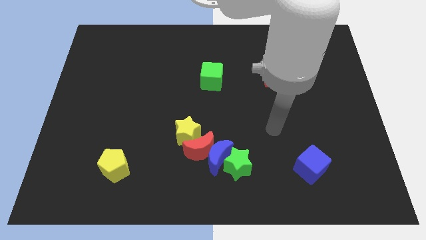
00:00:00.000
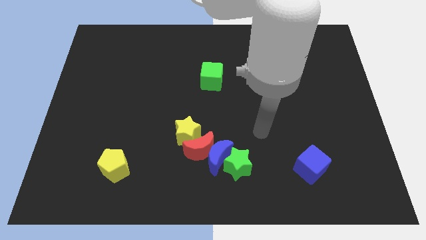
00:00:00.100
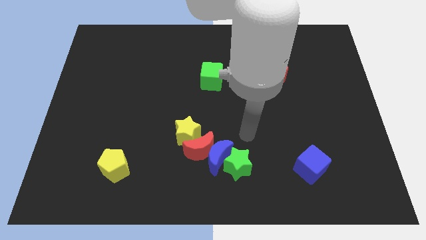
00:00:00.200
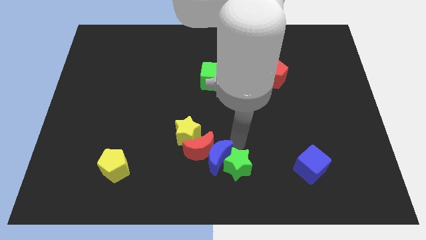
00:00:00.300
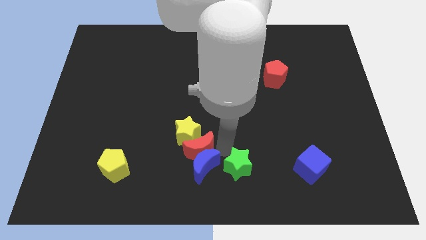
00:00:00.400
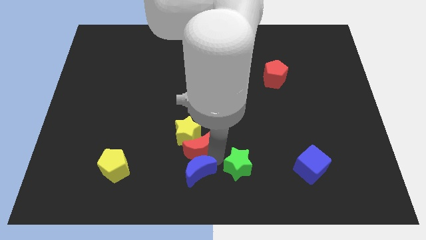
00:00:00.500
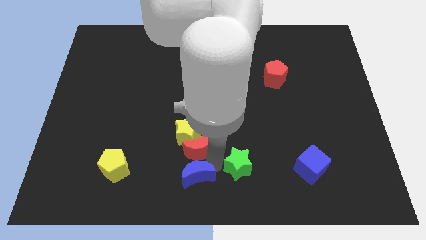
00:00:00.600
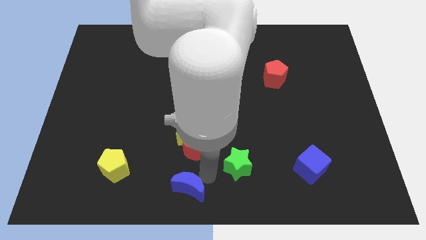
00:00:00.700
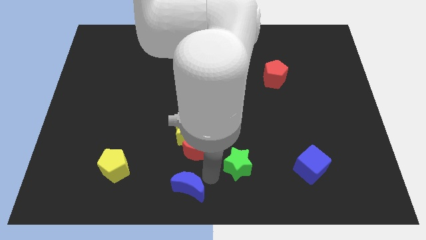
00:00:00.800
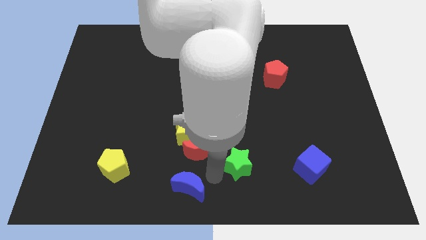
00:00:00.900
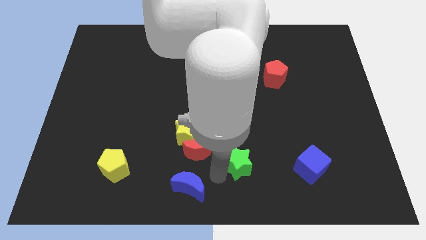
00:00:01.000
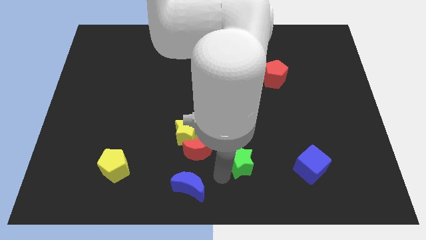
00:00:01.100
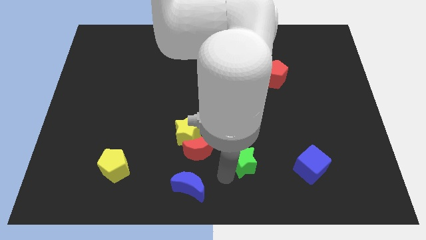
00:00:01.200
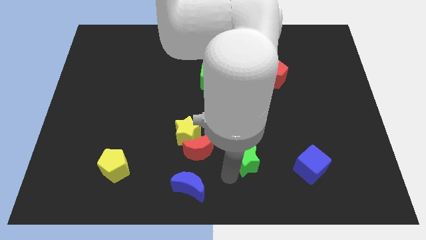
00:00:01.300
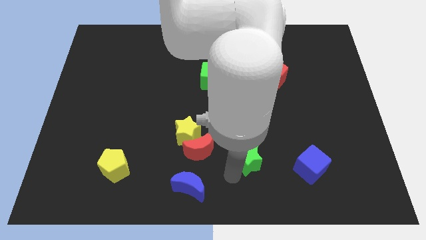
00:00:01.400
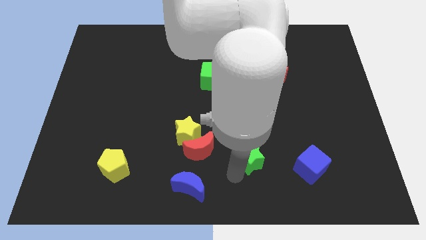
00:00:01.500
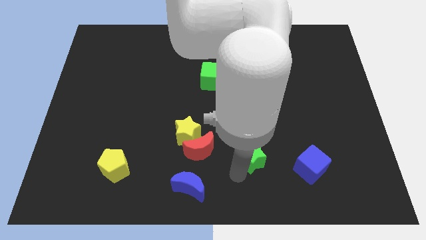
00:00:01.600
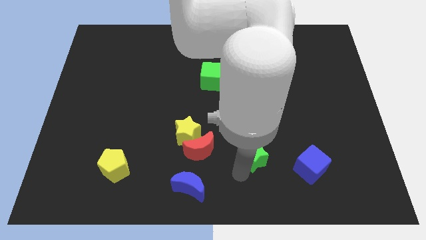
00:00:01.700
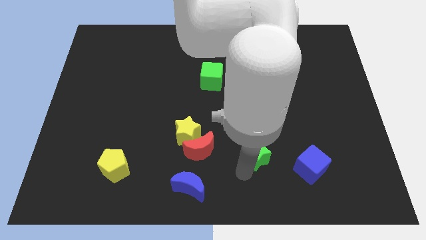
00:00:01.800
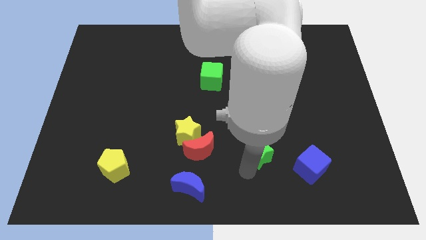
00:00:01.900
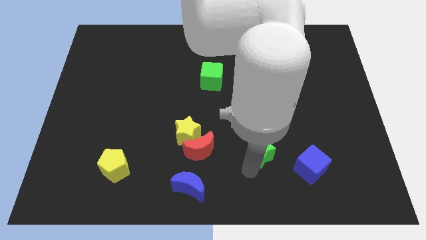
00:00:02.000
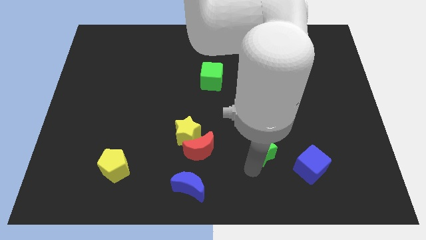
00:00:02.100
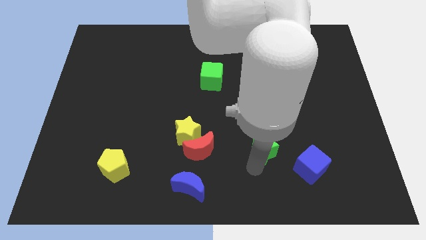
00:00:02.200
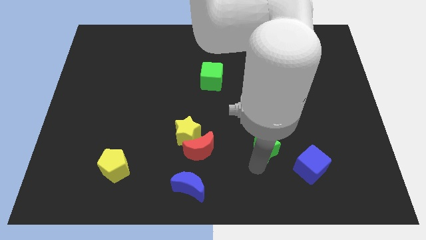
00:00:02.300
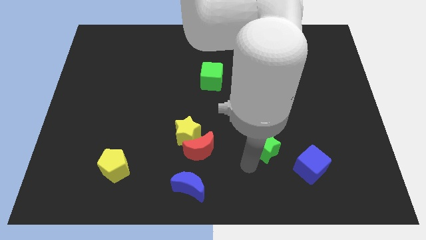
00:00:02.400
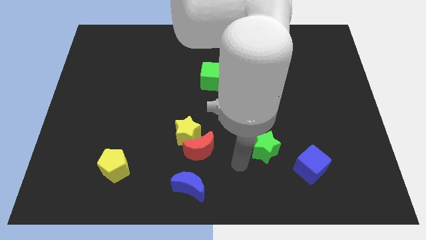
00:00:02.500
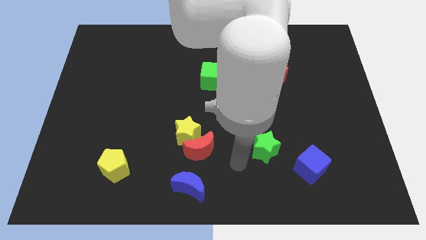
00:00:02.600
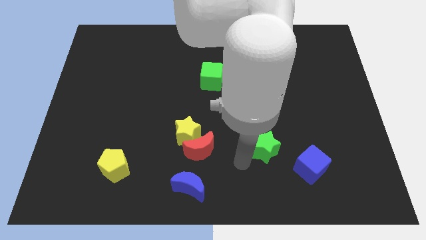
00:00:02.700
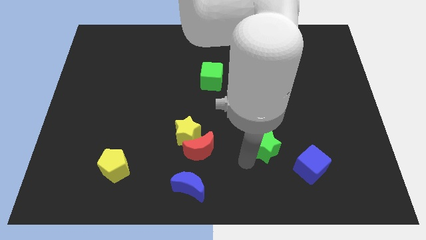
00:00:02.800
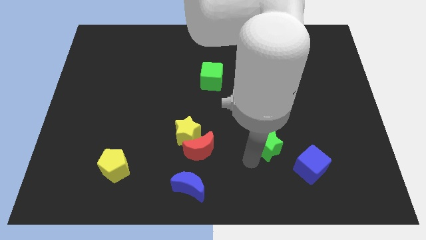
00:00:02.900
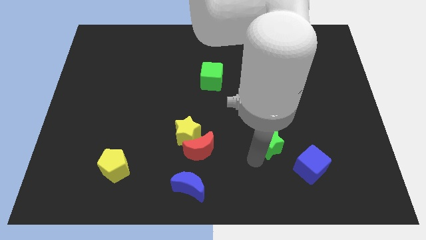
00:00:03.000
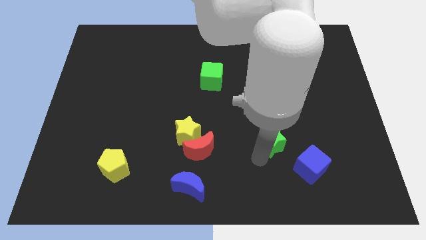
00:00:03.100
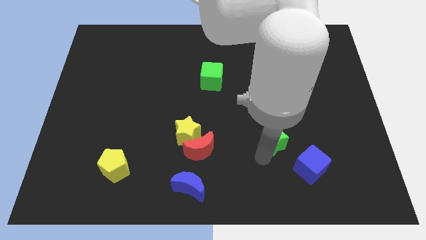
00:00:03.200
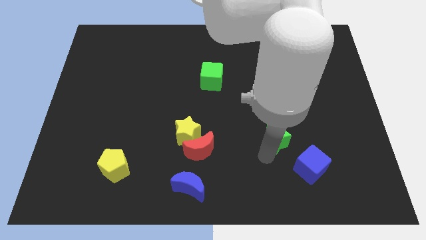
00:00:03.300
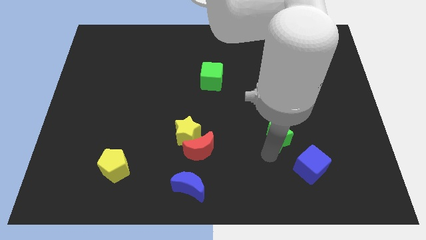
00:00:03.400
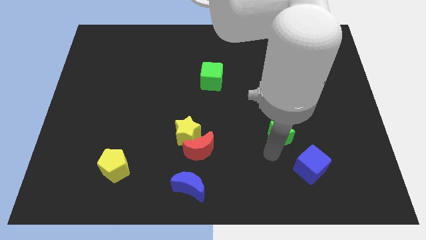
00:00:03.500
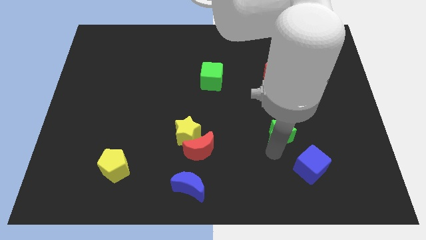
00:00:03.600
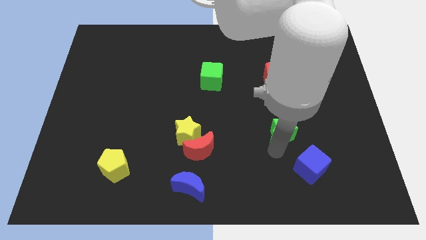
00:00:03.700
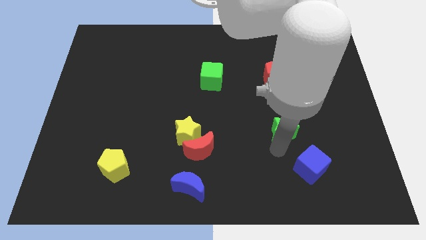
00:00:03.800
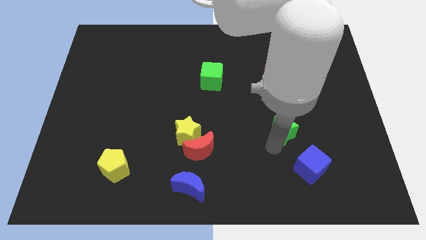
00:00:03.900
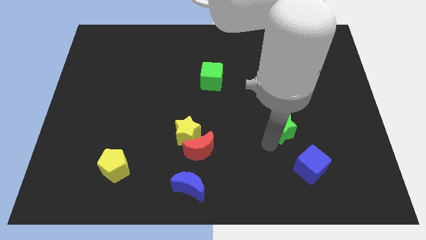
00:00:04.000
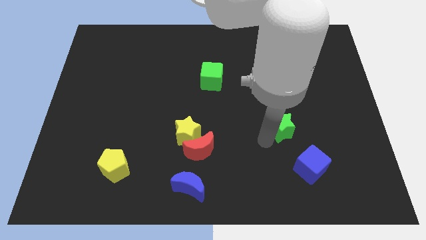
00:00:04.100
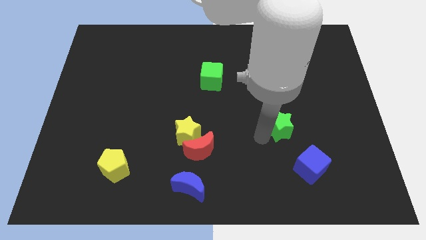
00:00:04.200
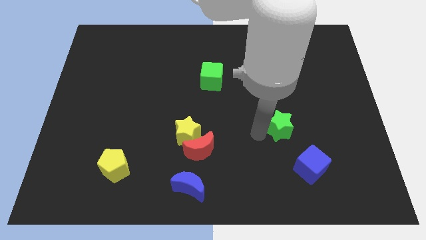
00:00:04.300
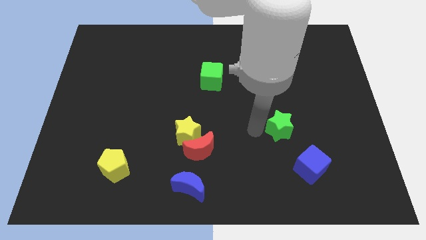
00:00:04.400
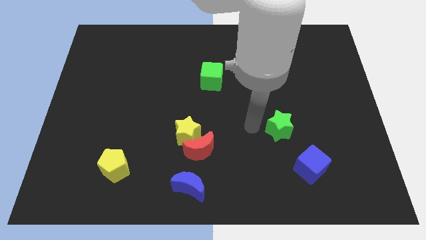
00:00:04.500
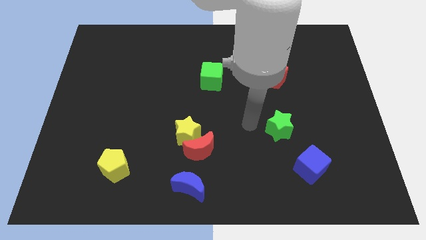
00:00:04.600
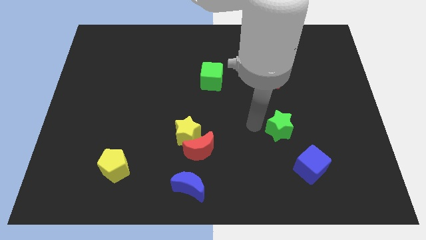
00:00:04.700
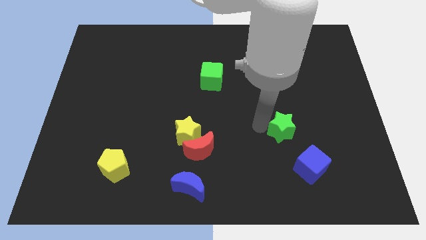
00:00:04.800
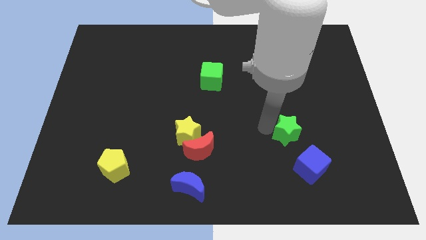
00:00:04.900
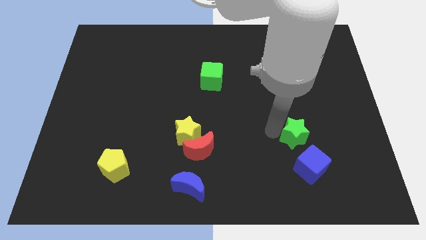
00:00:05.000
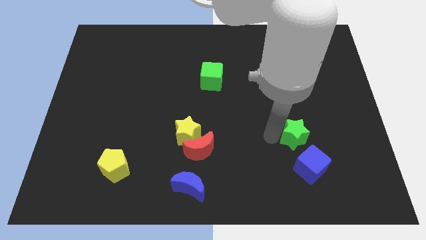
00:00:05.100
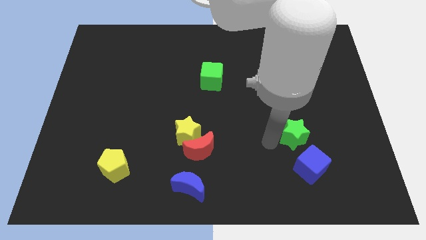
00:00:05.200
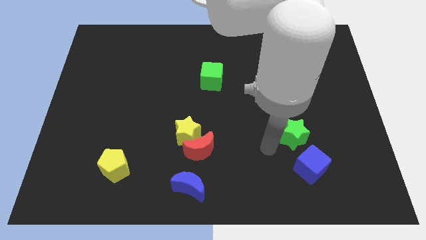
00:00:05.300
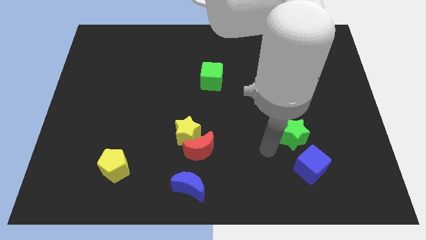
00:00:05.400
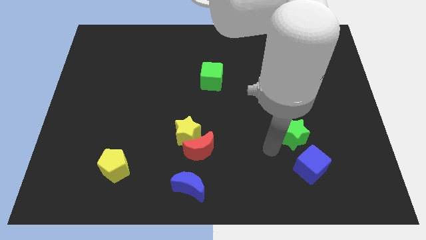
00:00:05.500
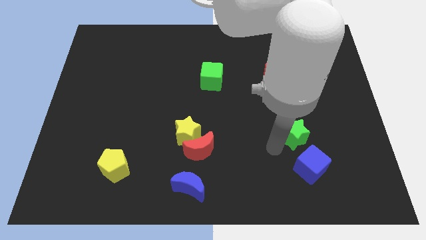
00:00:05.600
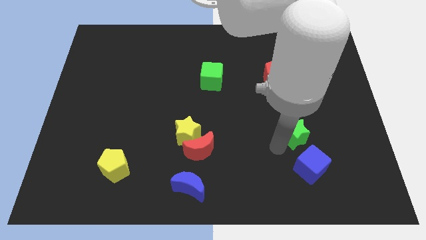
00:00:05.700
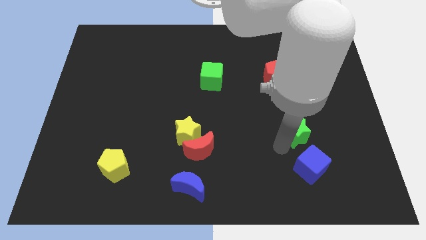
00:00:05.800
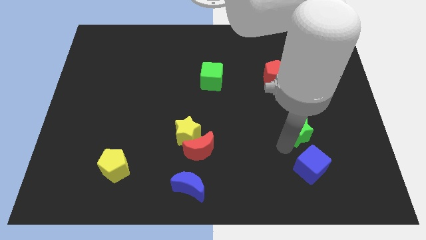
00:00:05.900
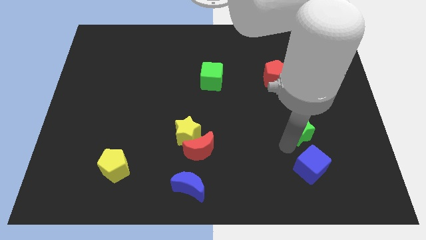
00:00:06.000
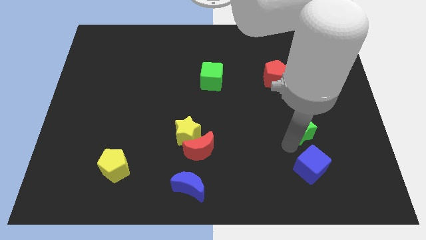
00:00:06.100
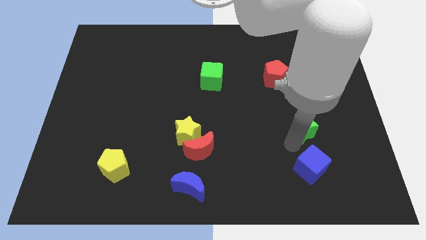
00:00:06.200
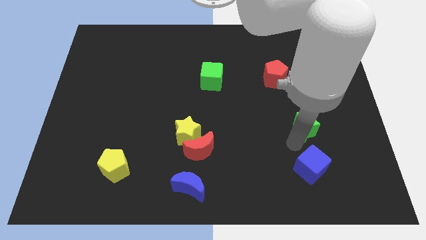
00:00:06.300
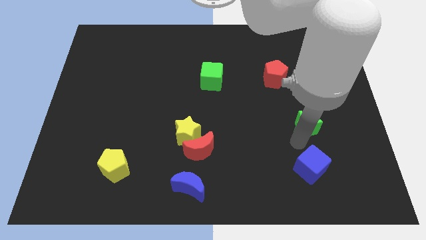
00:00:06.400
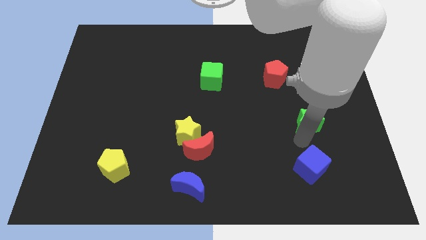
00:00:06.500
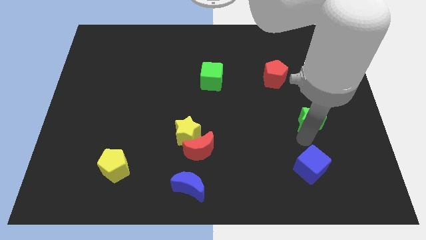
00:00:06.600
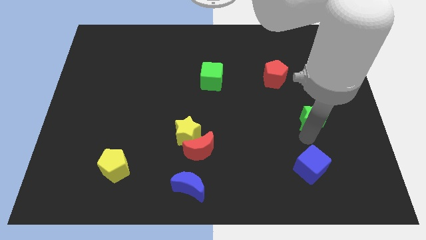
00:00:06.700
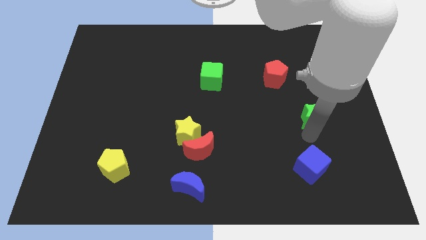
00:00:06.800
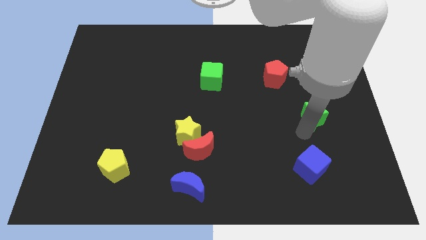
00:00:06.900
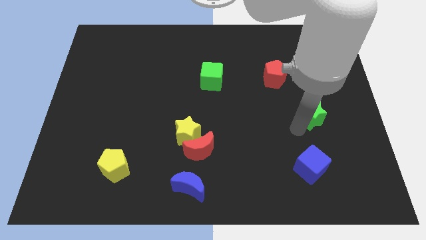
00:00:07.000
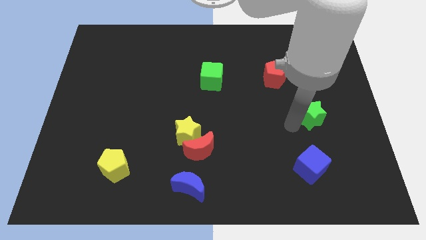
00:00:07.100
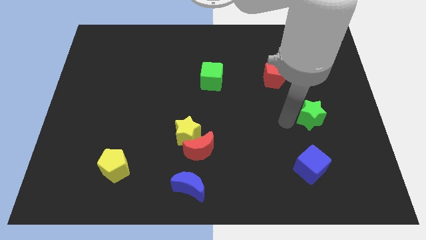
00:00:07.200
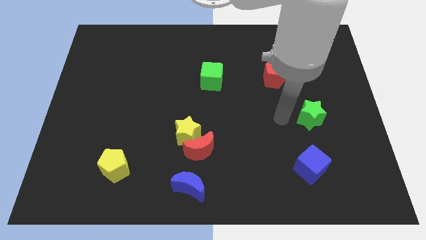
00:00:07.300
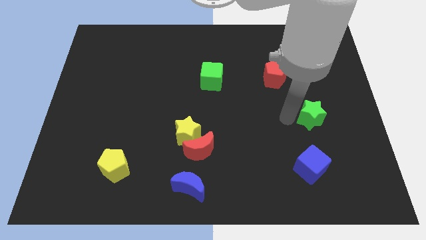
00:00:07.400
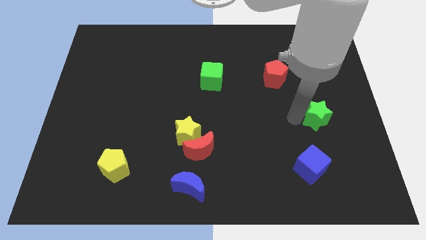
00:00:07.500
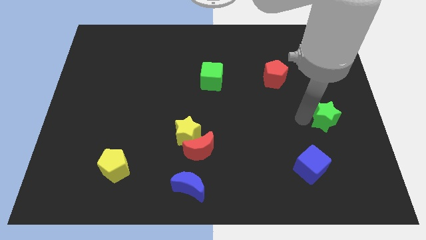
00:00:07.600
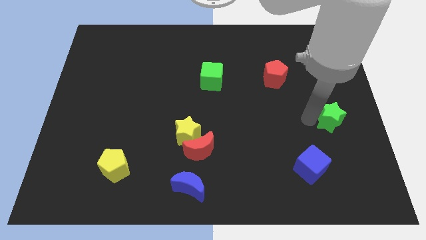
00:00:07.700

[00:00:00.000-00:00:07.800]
move the green star to the center right
